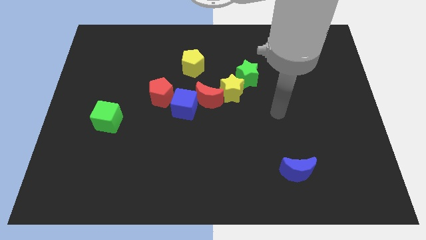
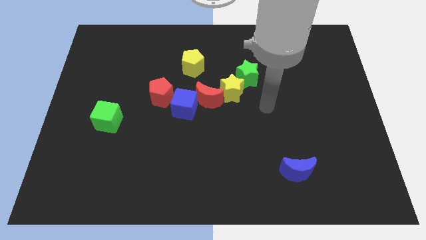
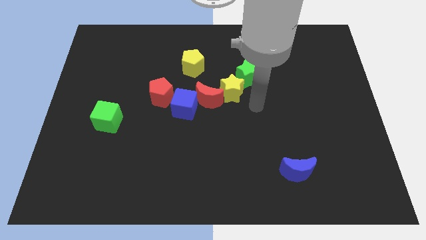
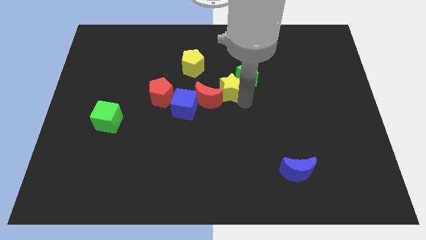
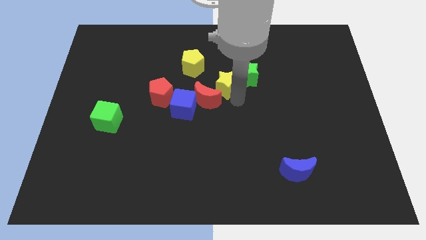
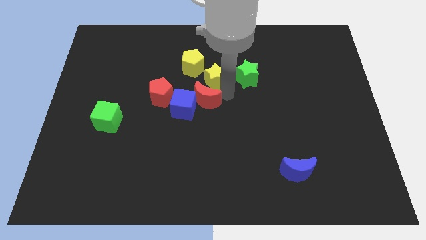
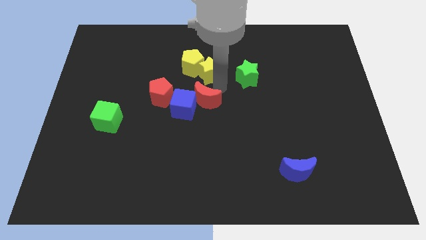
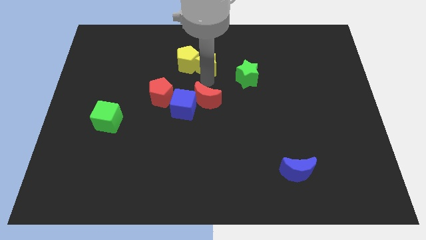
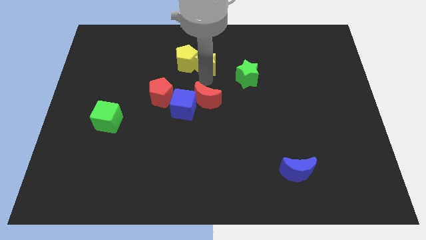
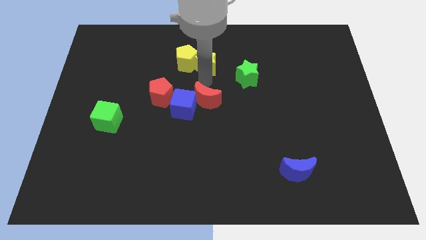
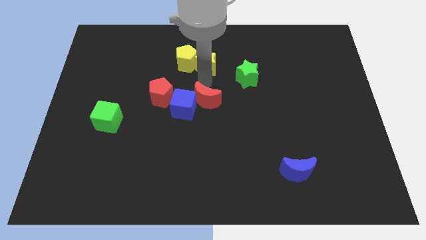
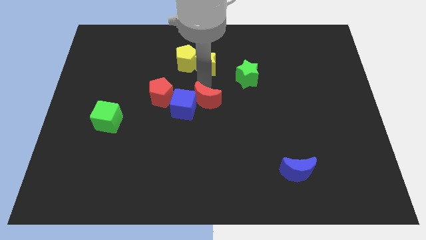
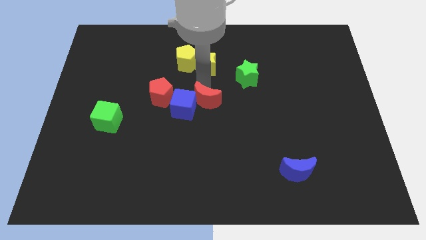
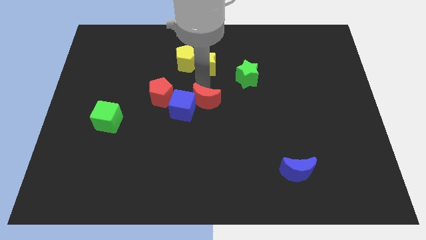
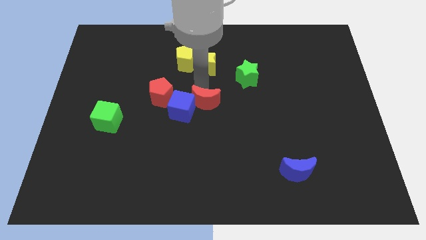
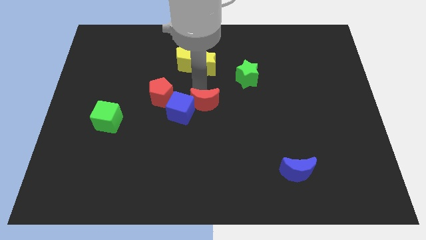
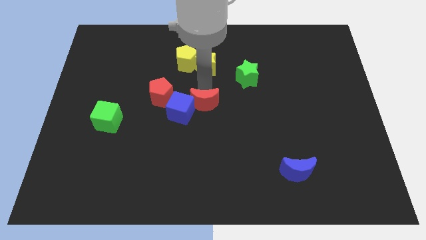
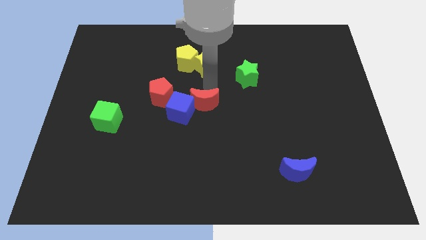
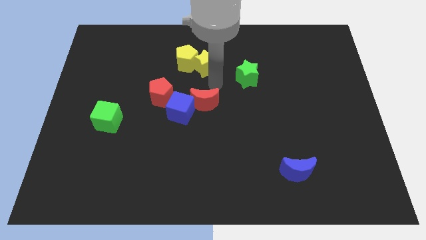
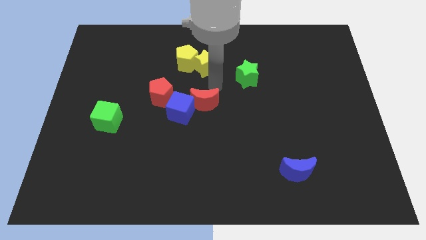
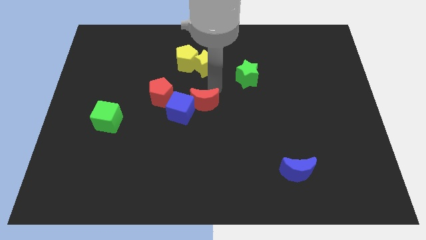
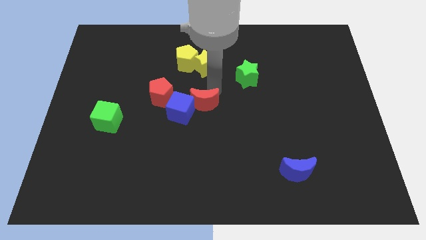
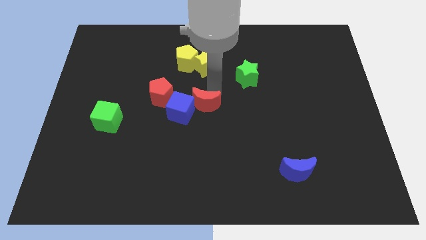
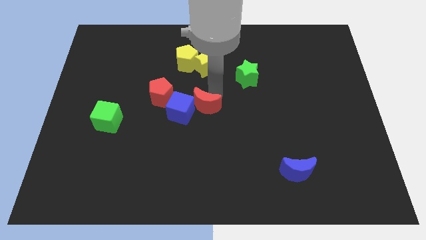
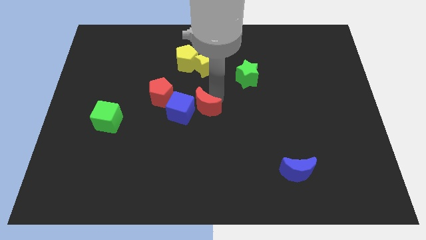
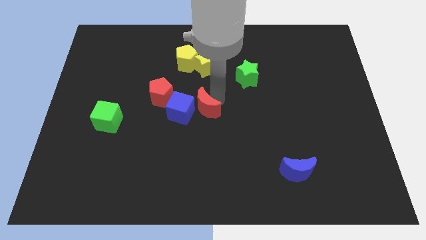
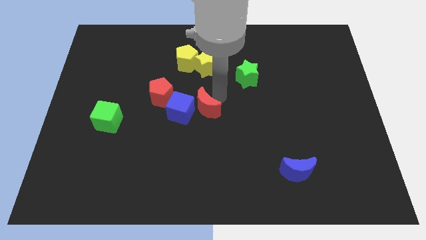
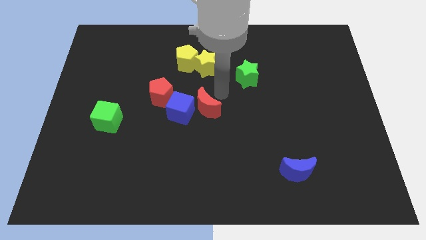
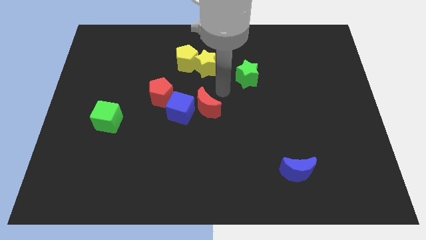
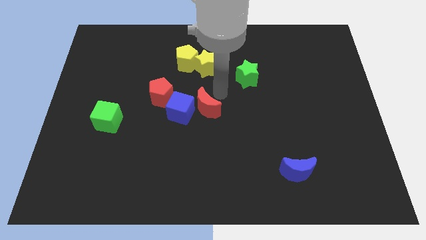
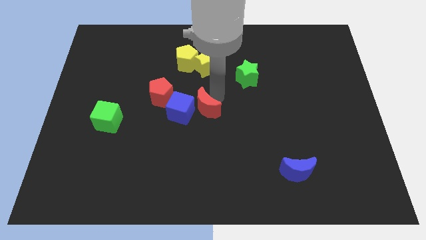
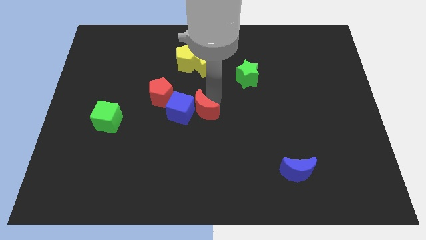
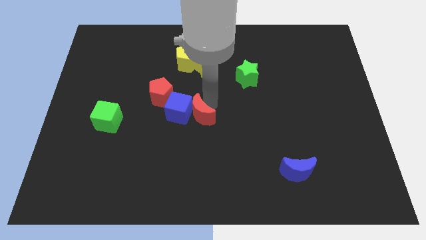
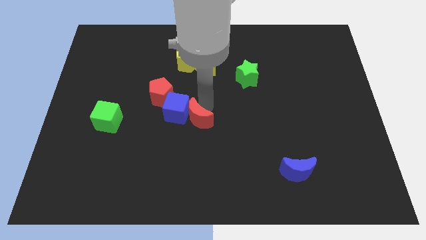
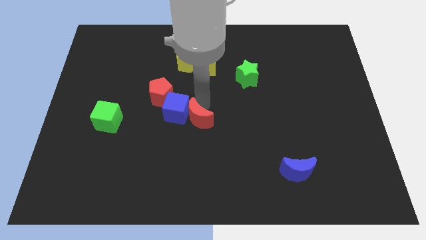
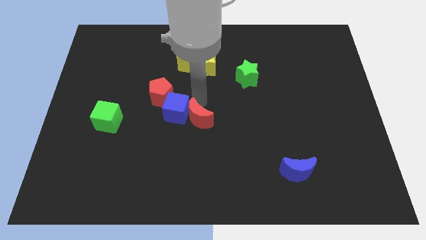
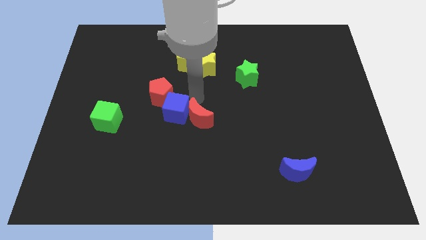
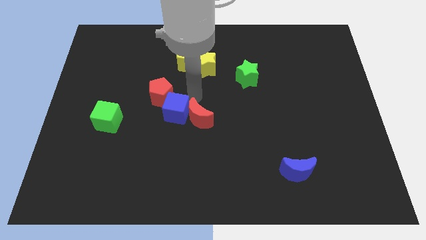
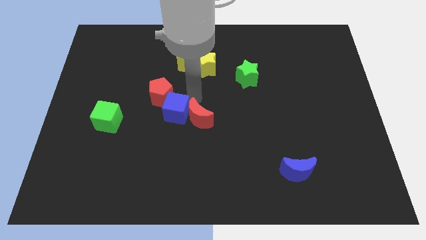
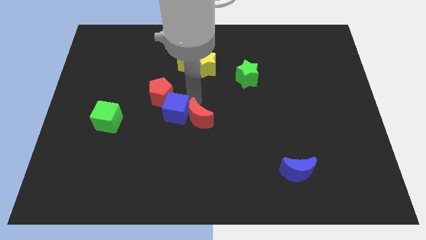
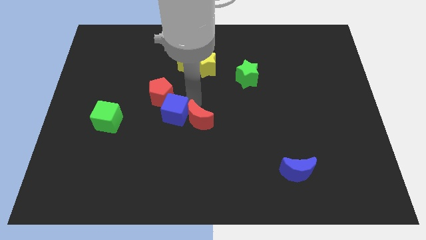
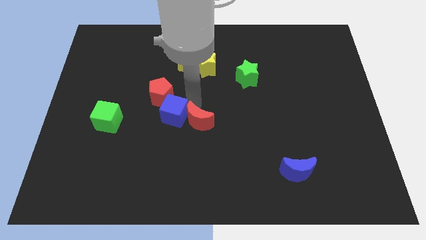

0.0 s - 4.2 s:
separate the red moon from the blue cube and yellow star

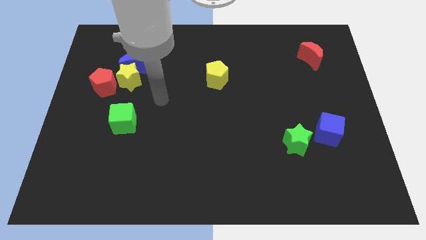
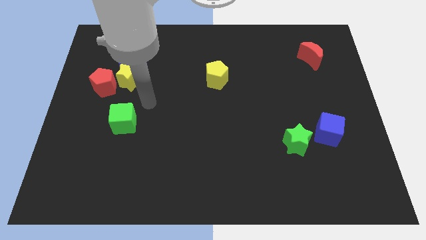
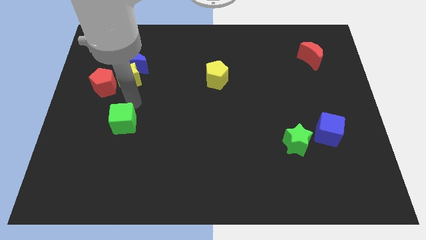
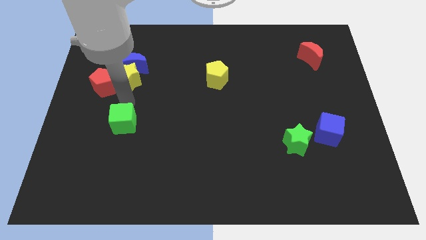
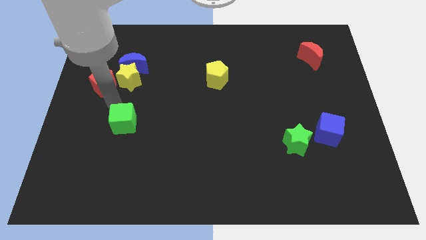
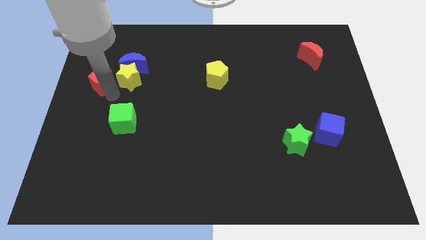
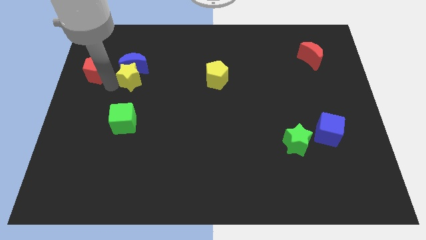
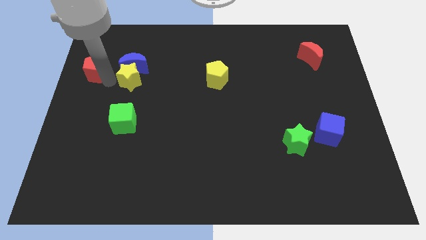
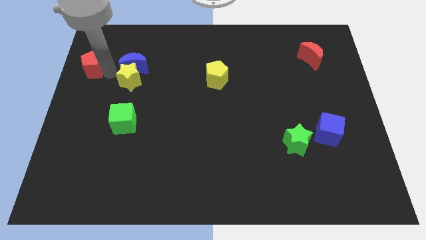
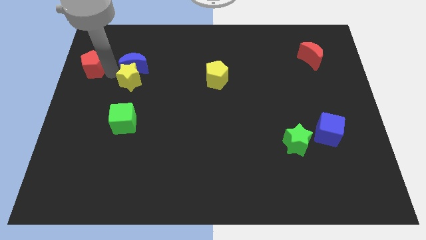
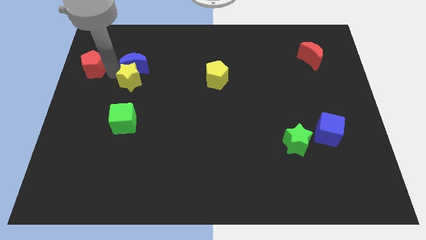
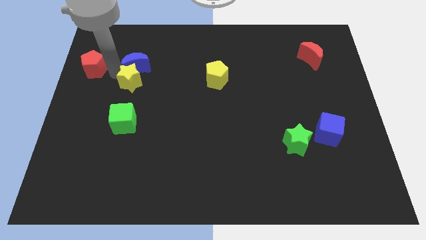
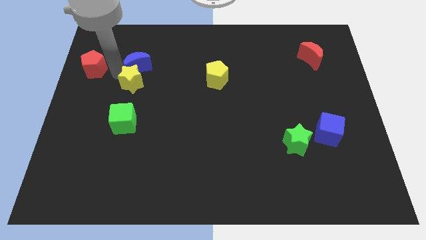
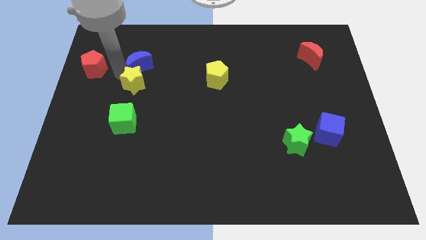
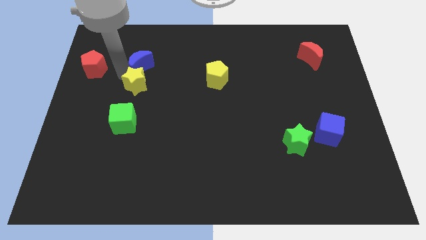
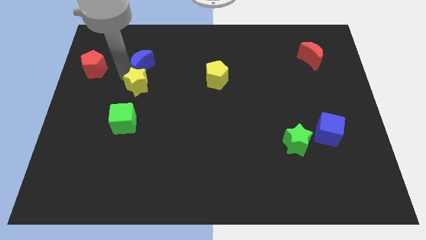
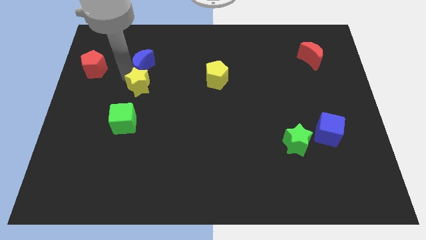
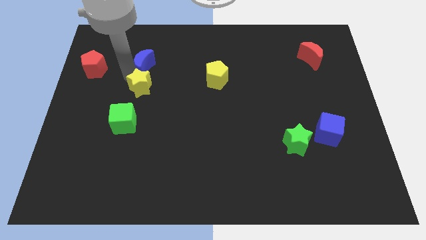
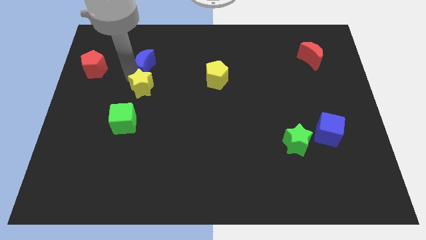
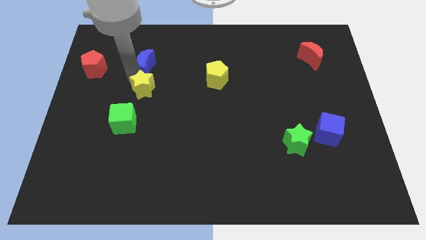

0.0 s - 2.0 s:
pull the yellow star apart from the blue moon and red pentagon

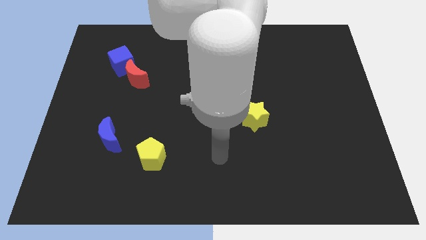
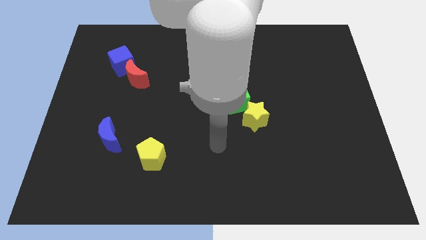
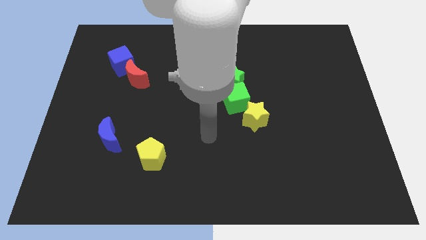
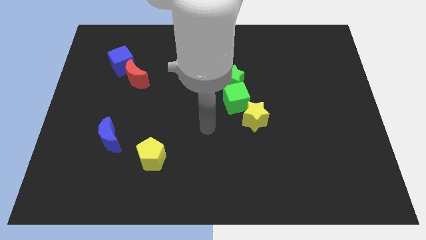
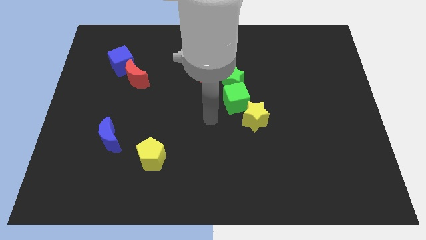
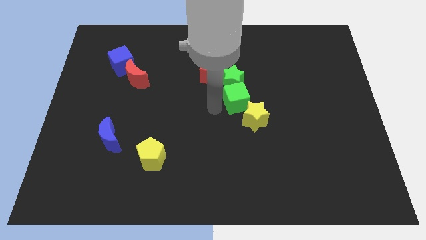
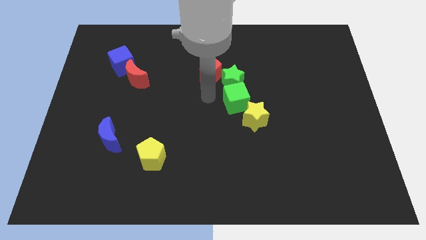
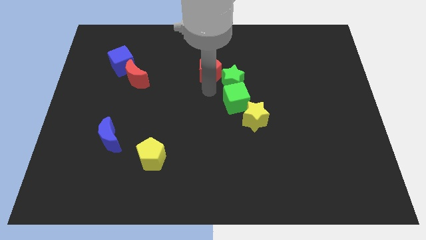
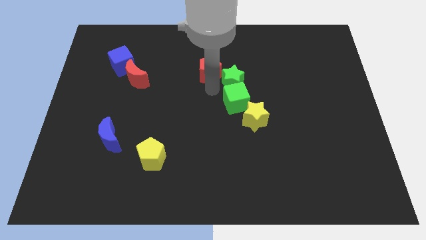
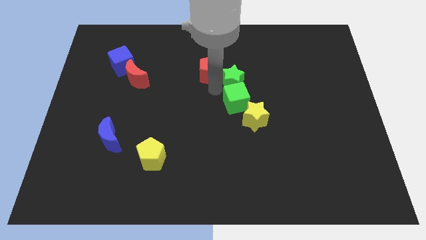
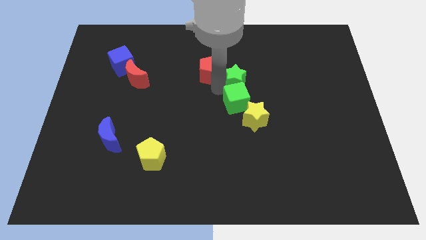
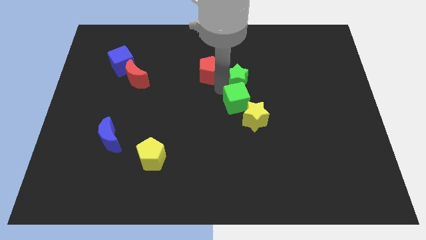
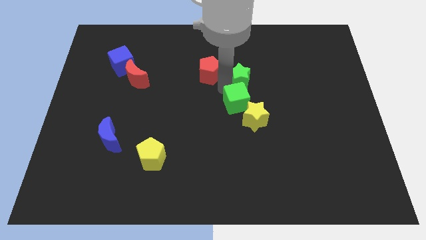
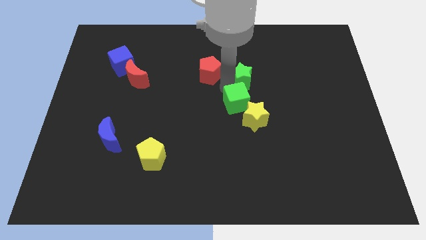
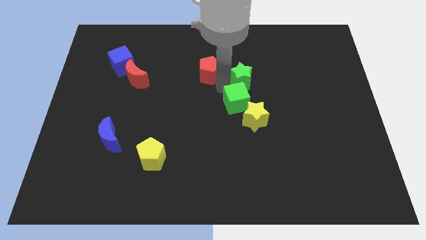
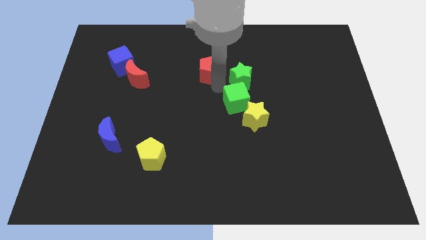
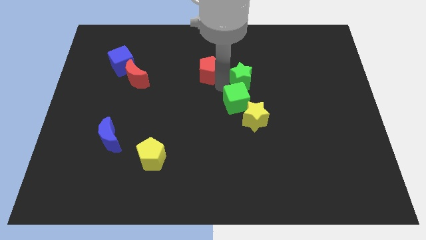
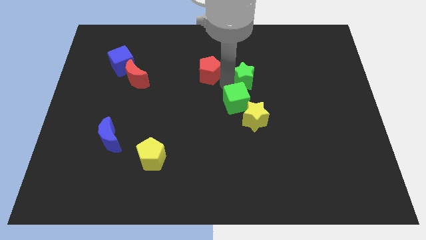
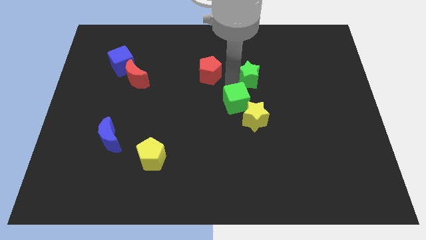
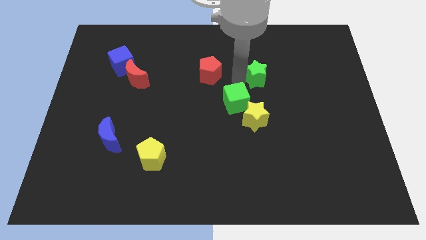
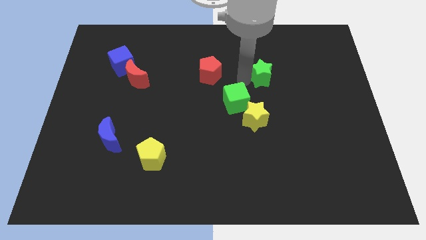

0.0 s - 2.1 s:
separate the green star from the green cube and red pentagon

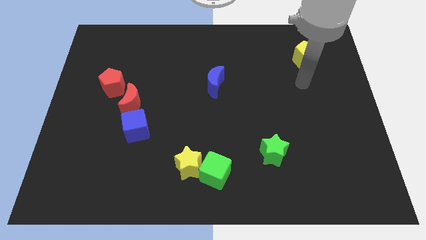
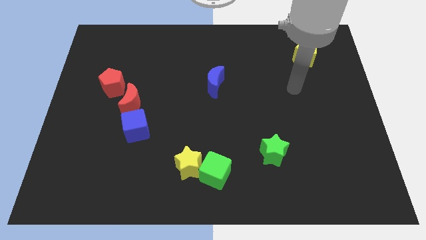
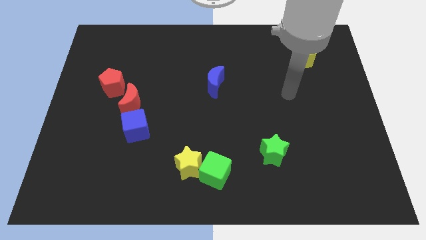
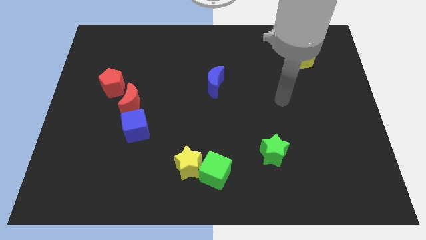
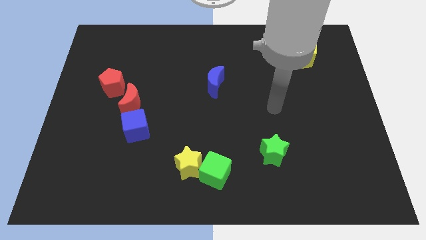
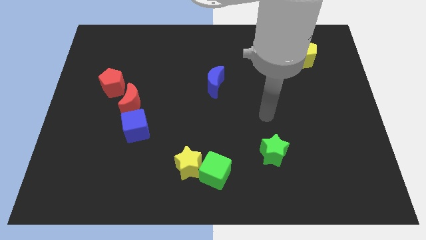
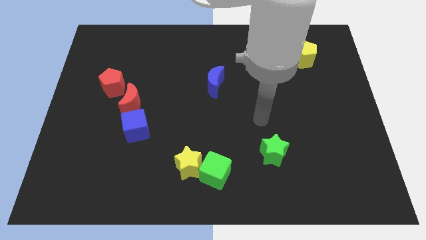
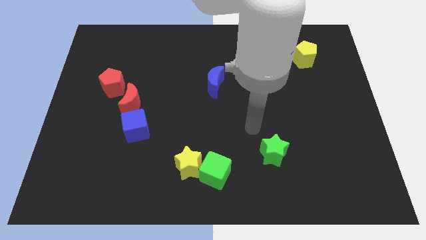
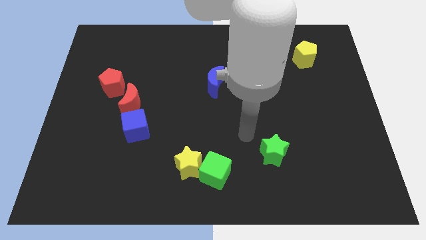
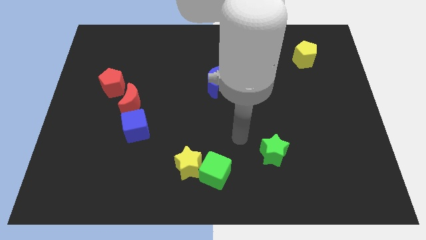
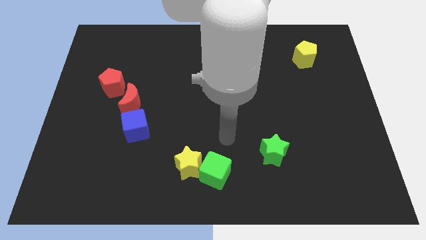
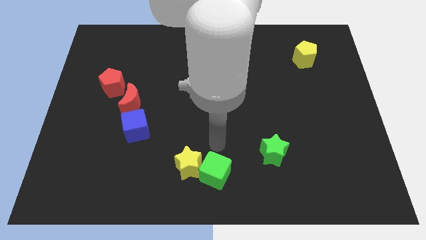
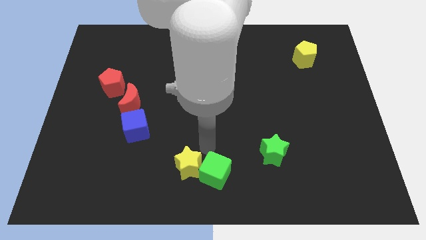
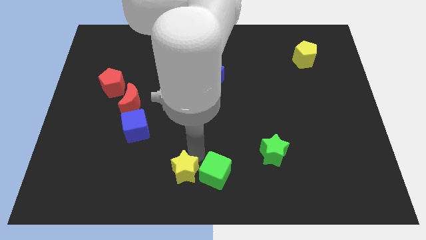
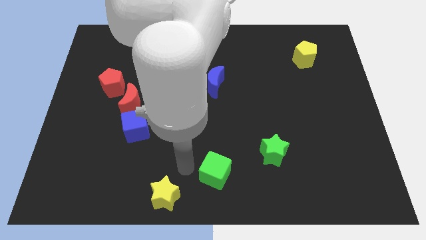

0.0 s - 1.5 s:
move the green cube away from the yellow star
